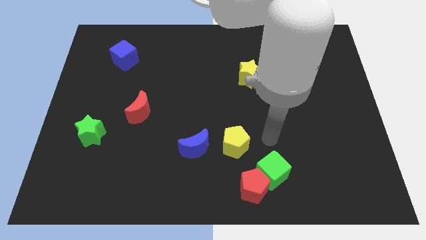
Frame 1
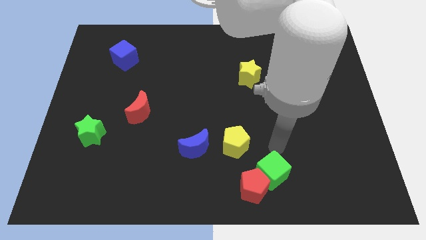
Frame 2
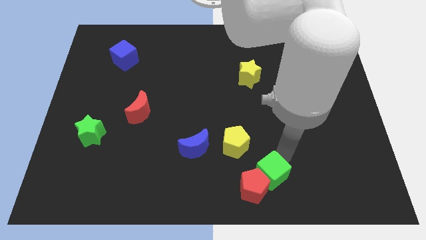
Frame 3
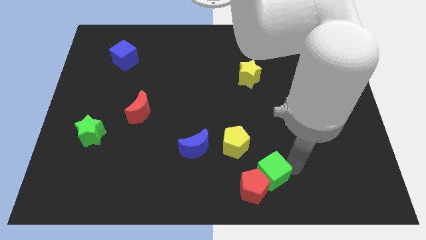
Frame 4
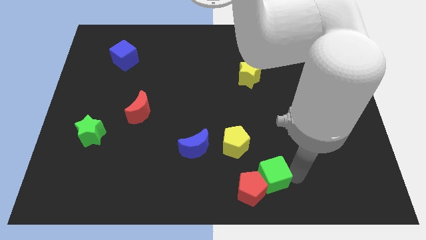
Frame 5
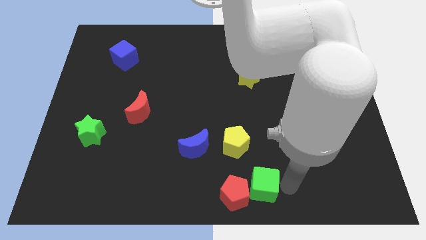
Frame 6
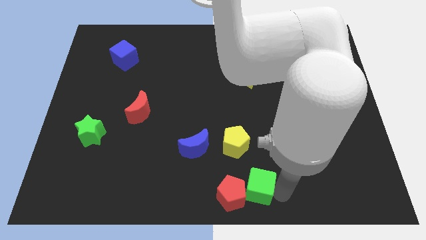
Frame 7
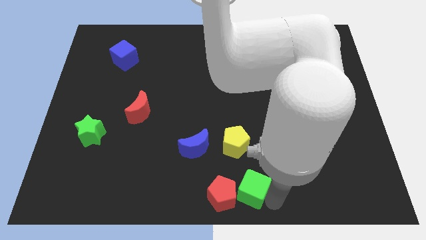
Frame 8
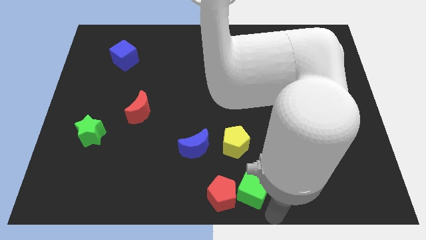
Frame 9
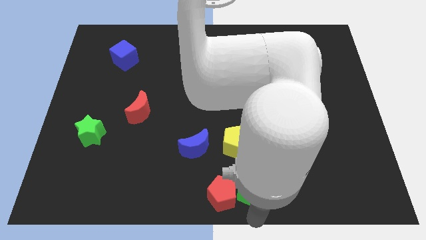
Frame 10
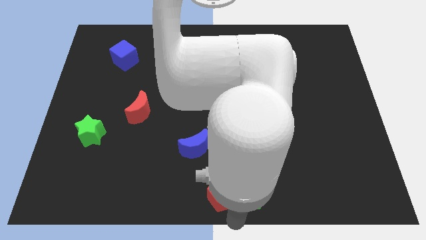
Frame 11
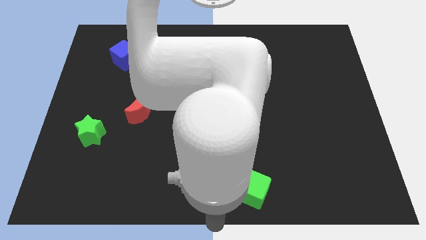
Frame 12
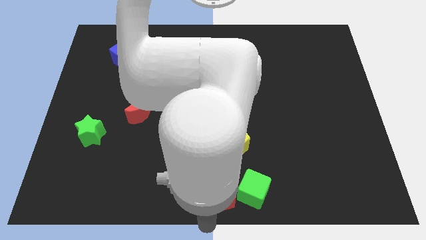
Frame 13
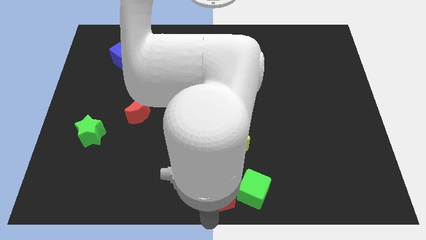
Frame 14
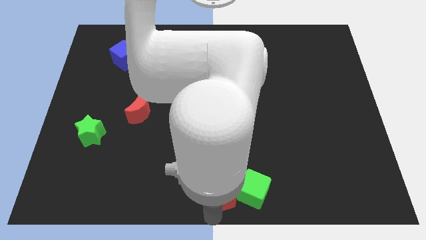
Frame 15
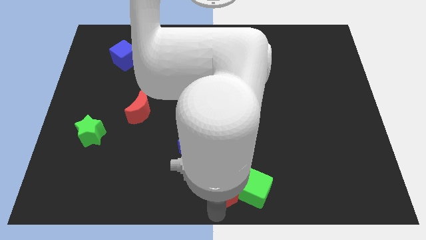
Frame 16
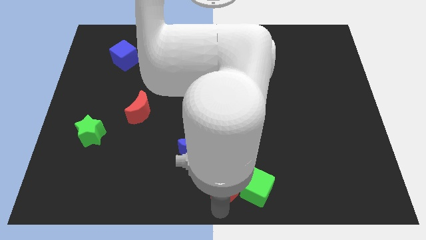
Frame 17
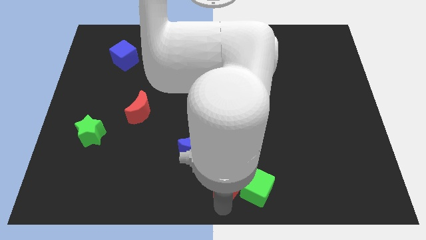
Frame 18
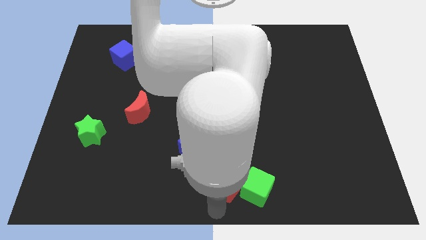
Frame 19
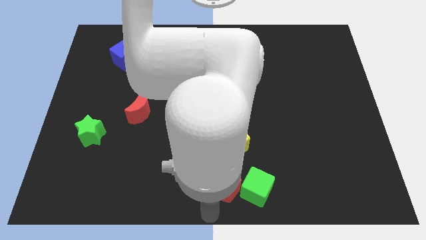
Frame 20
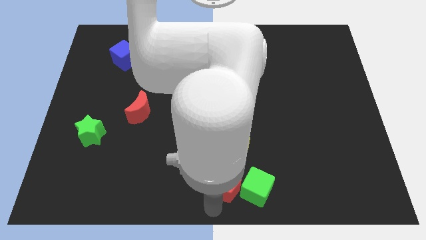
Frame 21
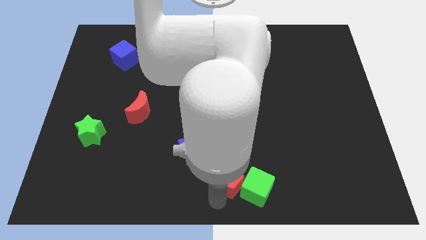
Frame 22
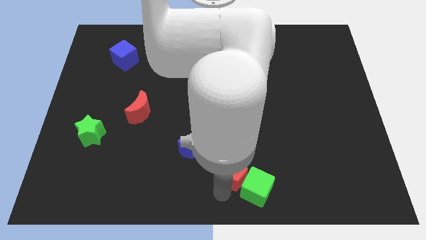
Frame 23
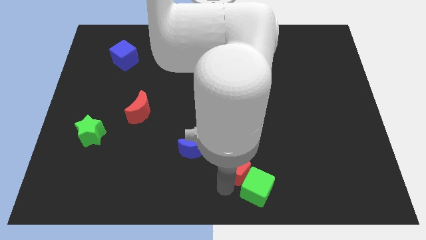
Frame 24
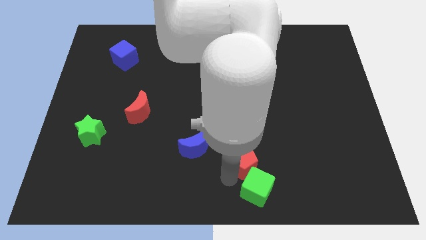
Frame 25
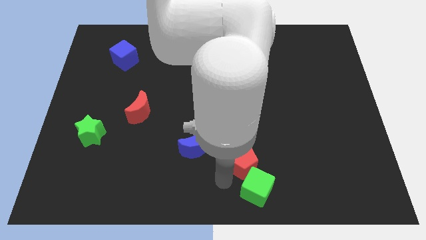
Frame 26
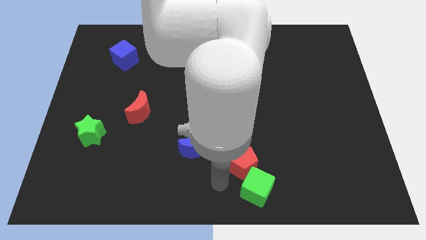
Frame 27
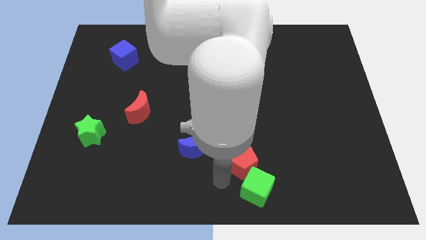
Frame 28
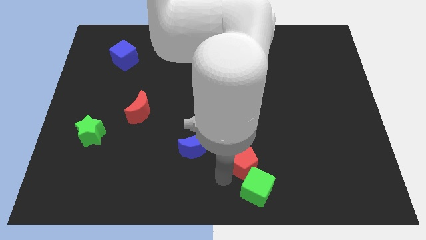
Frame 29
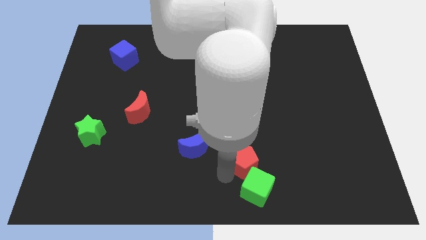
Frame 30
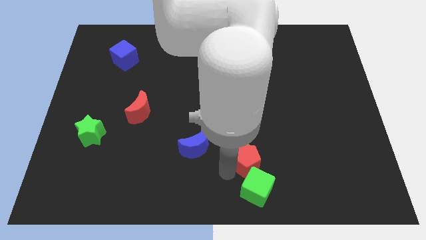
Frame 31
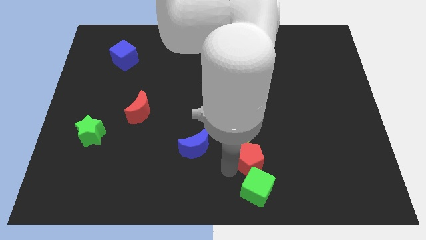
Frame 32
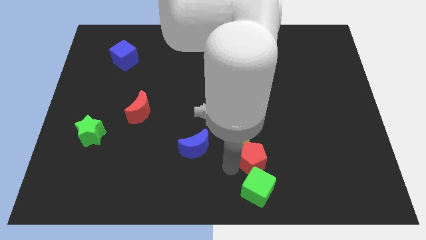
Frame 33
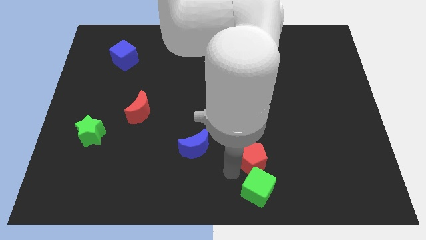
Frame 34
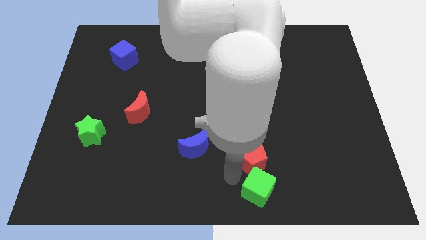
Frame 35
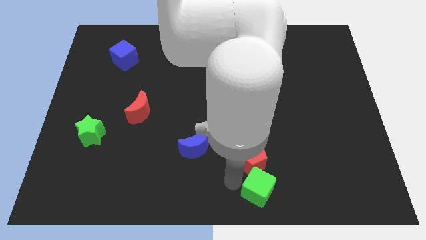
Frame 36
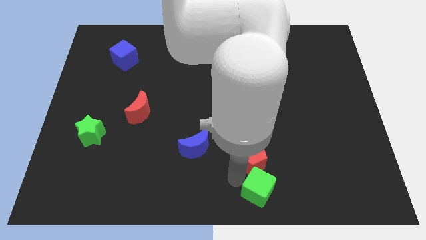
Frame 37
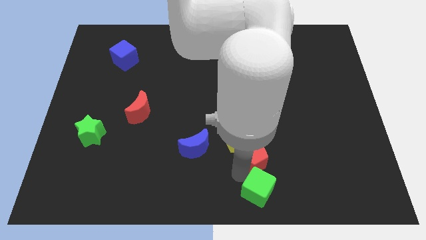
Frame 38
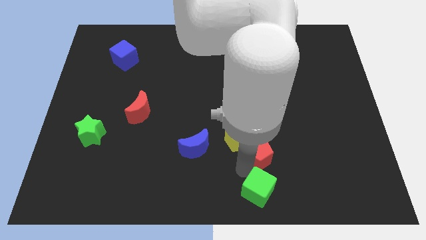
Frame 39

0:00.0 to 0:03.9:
slightly push the red pentagon up

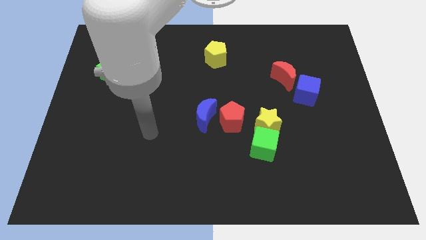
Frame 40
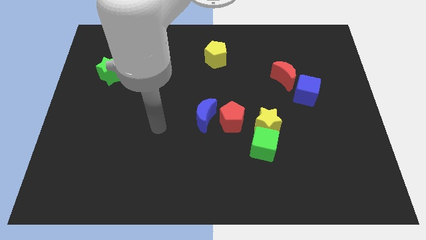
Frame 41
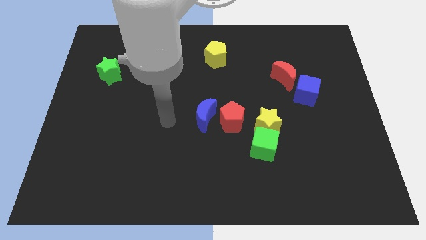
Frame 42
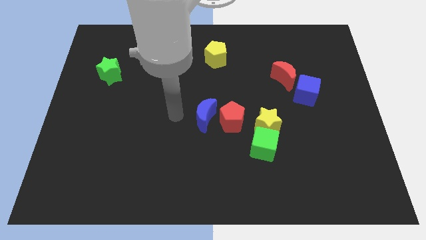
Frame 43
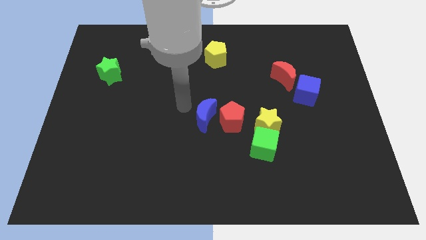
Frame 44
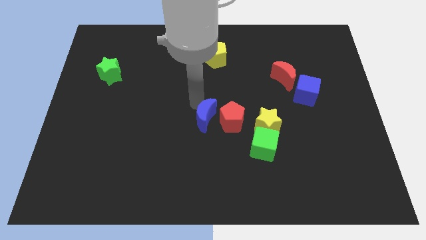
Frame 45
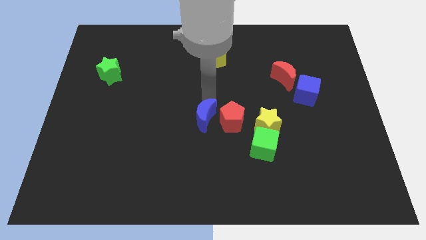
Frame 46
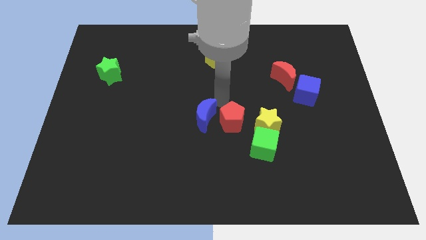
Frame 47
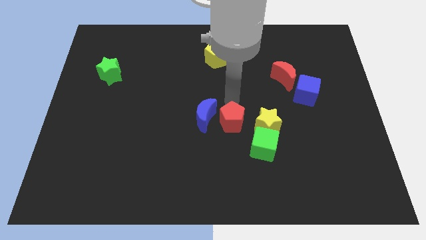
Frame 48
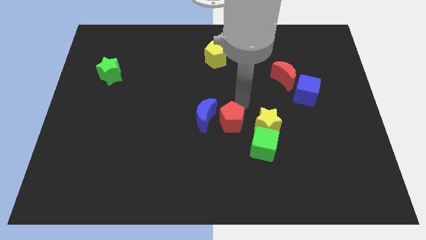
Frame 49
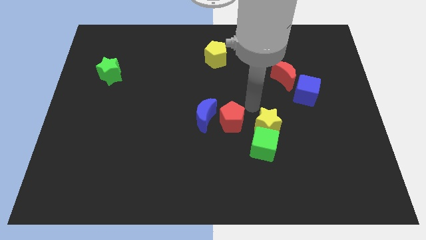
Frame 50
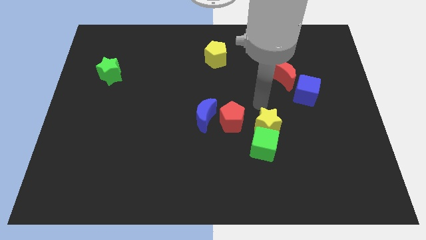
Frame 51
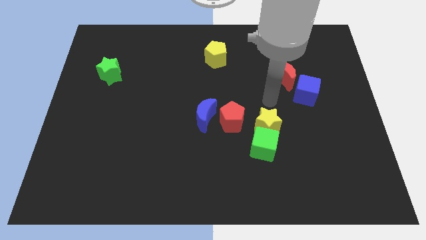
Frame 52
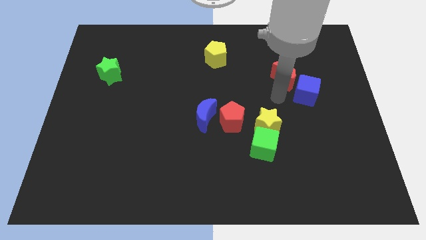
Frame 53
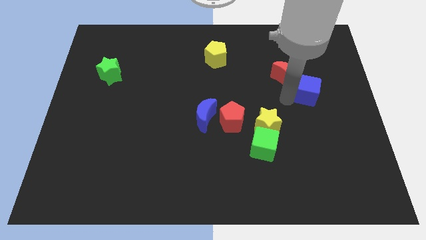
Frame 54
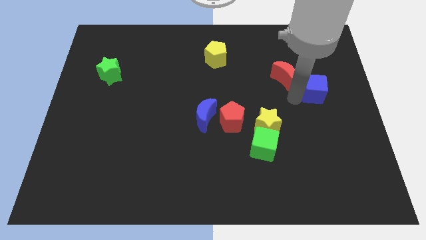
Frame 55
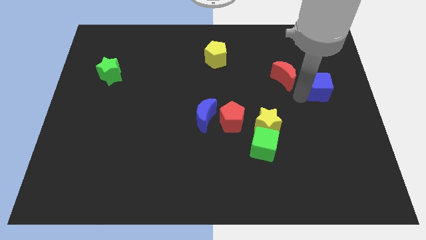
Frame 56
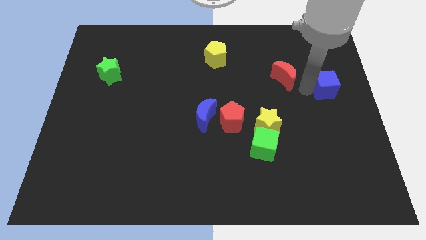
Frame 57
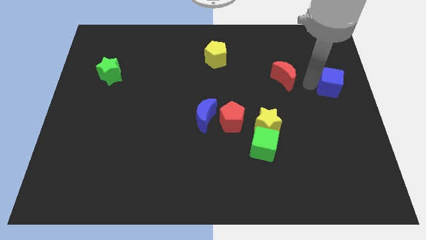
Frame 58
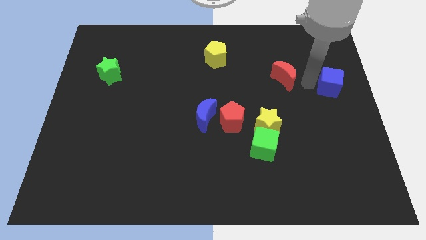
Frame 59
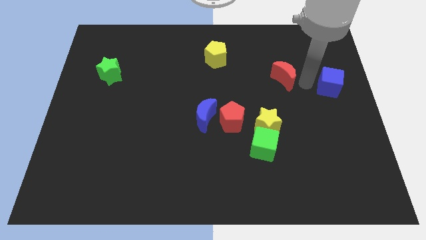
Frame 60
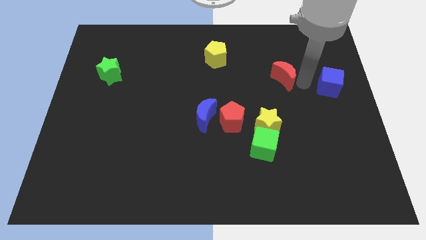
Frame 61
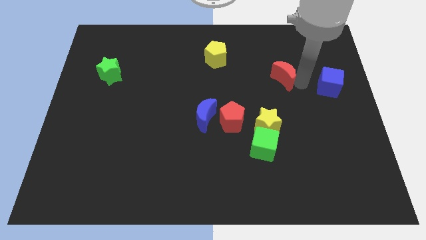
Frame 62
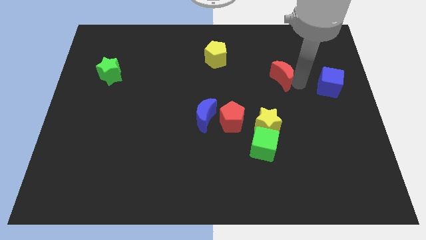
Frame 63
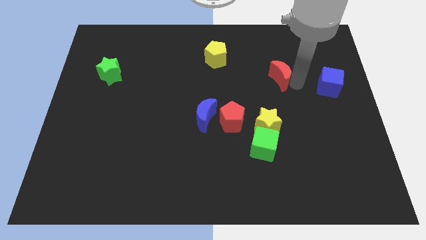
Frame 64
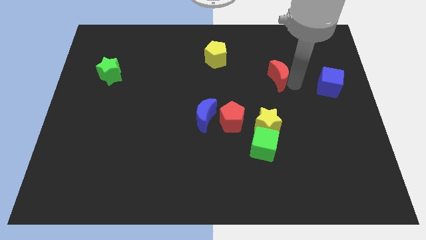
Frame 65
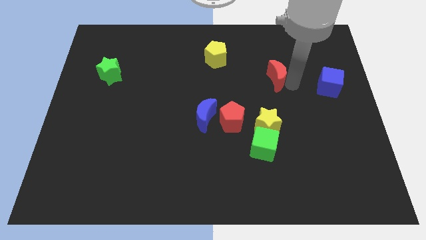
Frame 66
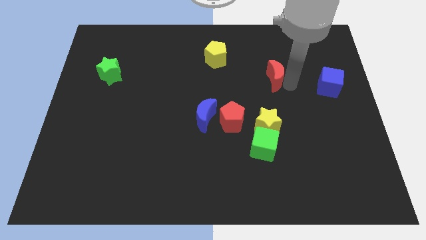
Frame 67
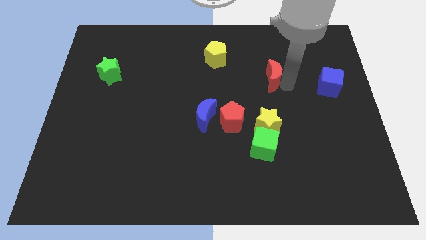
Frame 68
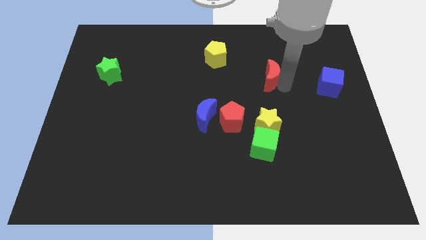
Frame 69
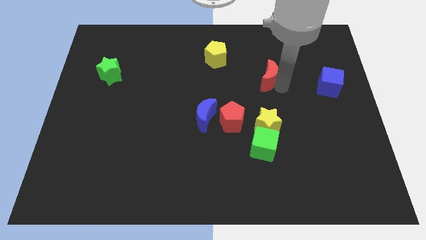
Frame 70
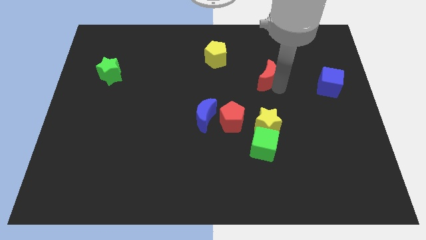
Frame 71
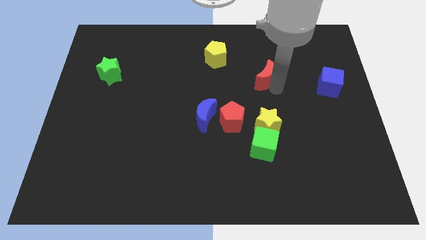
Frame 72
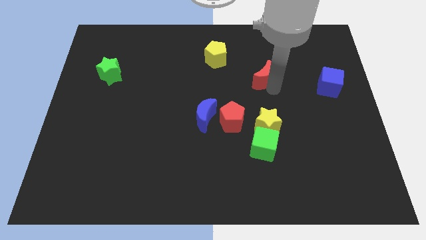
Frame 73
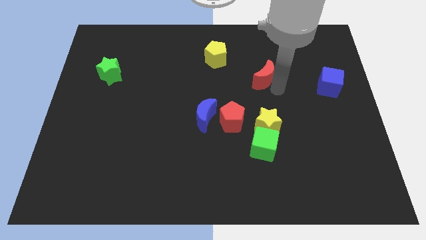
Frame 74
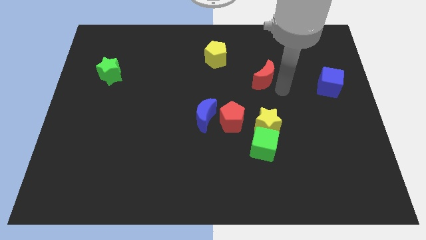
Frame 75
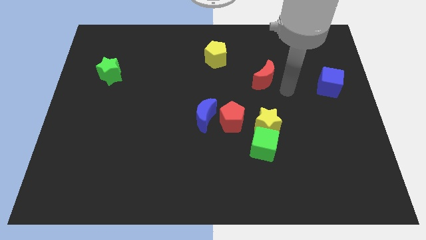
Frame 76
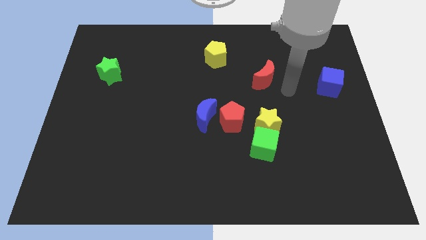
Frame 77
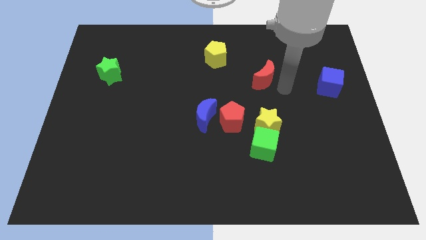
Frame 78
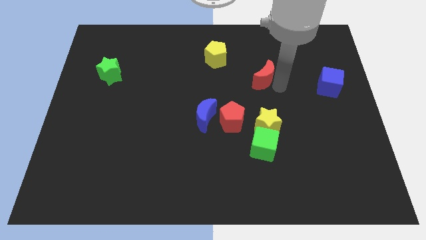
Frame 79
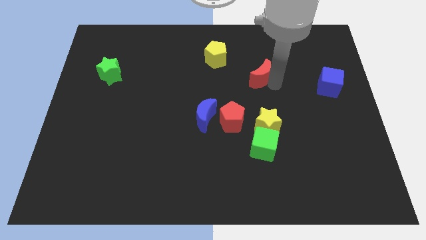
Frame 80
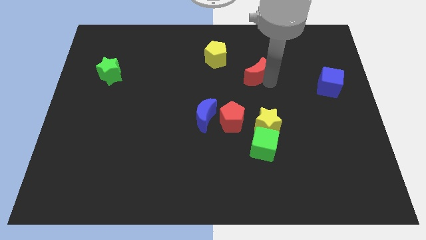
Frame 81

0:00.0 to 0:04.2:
push the red moon a little to the left
